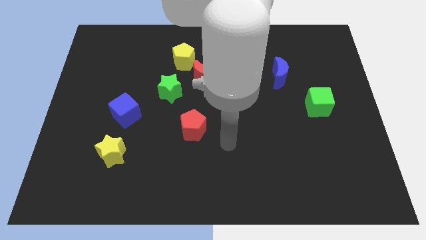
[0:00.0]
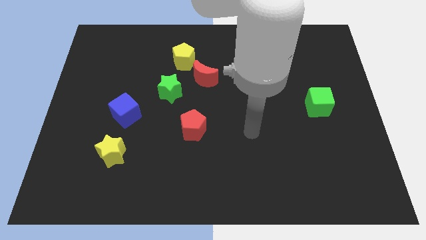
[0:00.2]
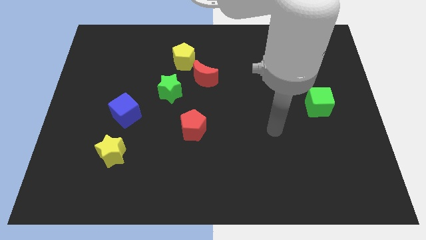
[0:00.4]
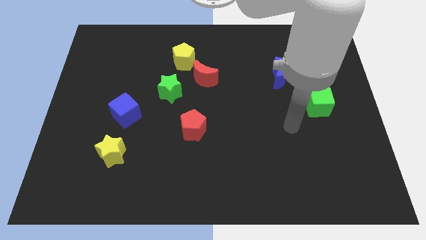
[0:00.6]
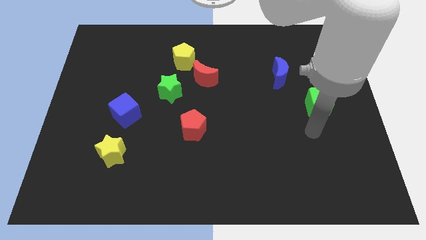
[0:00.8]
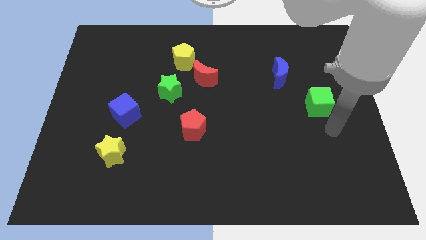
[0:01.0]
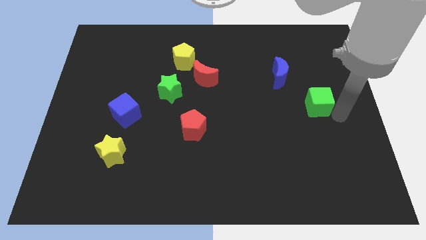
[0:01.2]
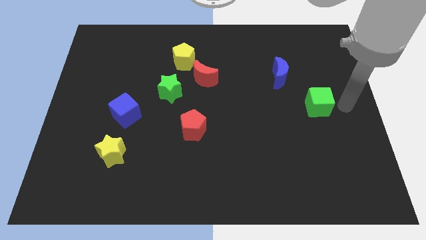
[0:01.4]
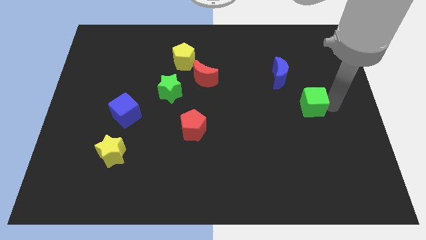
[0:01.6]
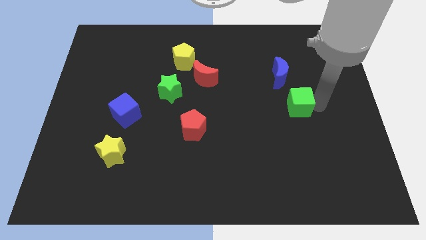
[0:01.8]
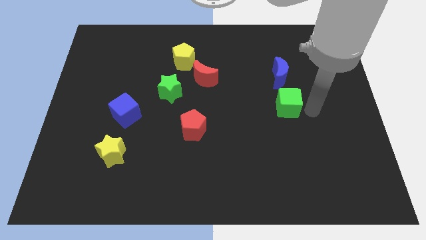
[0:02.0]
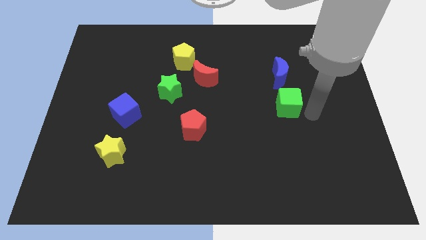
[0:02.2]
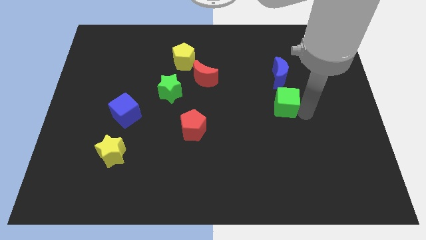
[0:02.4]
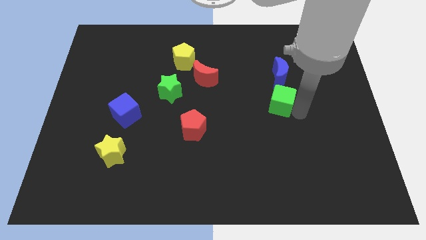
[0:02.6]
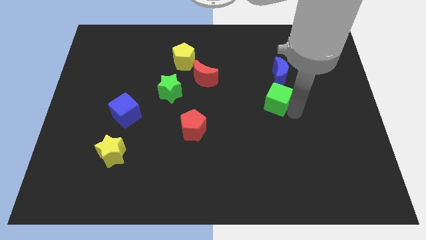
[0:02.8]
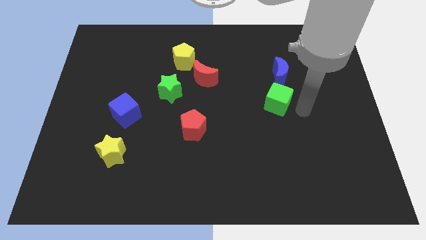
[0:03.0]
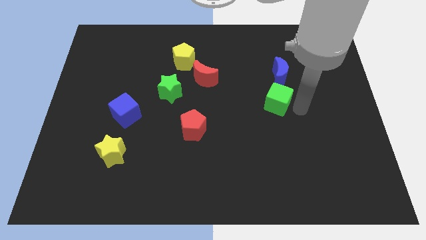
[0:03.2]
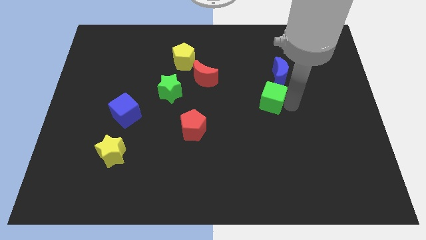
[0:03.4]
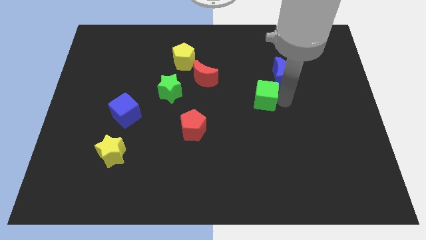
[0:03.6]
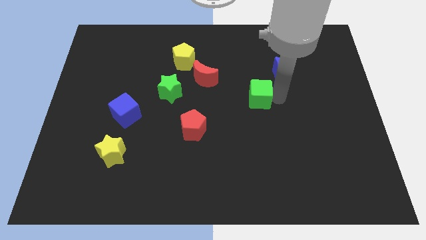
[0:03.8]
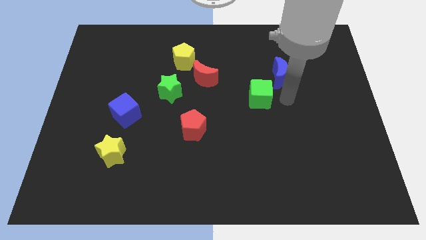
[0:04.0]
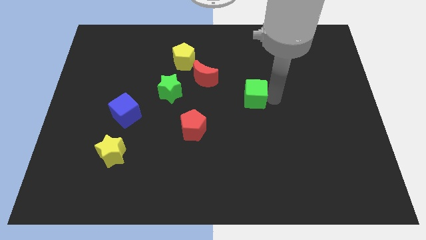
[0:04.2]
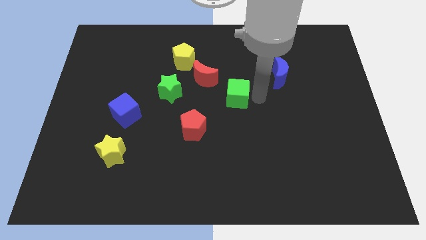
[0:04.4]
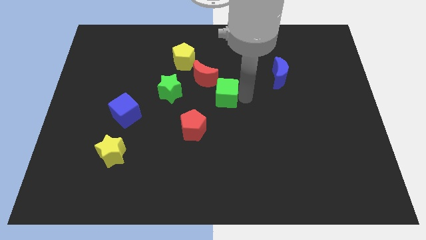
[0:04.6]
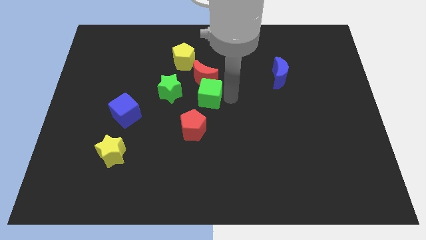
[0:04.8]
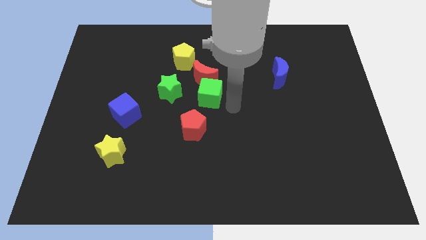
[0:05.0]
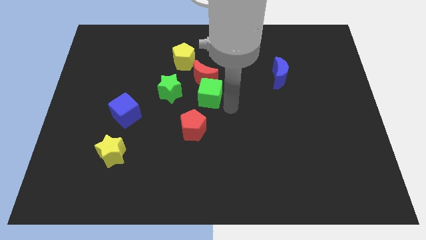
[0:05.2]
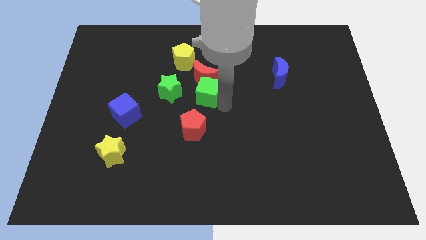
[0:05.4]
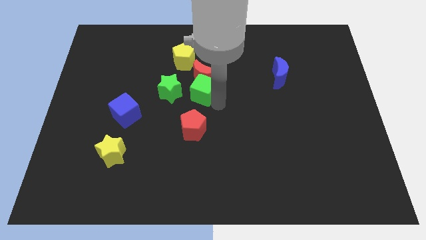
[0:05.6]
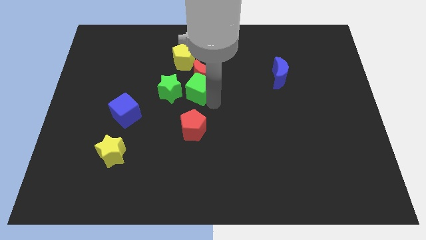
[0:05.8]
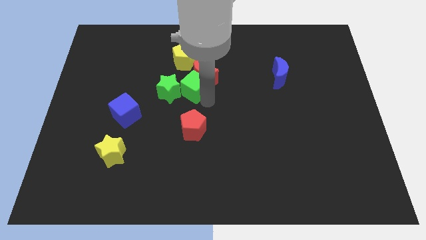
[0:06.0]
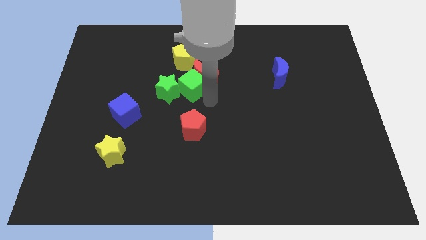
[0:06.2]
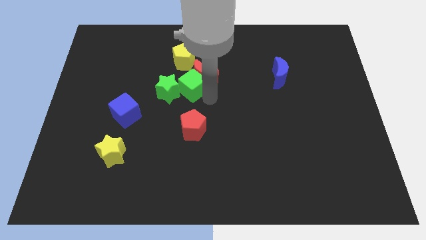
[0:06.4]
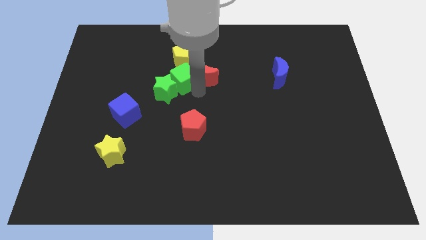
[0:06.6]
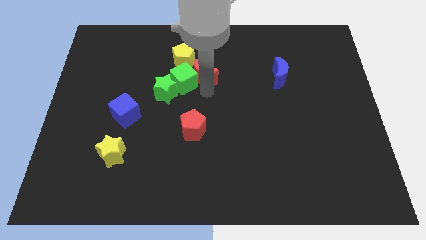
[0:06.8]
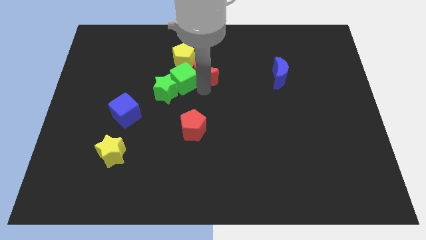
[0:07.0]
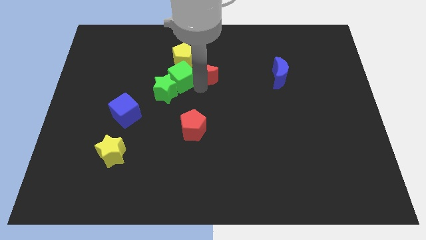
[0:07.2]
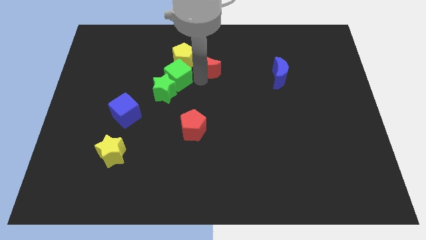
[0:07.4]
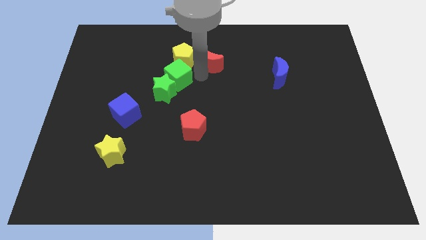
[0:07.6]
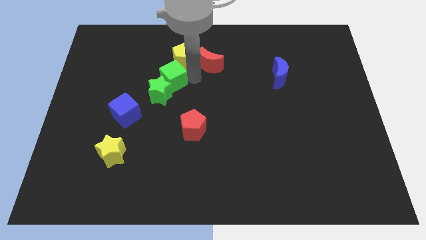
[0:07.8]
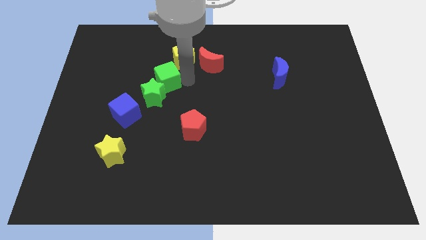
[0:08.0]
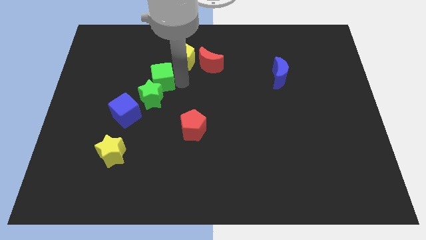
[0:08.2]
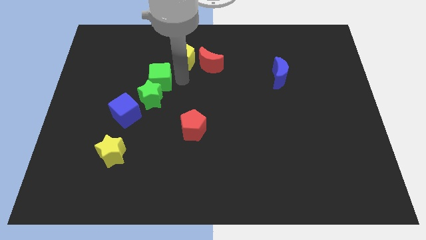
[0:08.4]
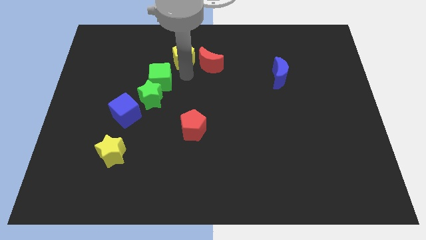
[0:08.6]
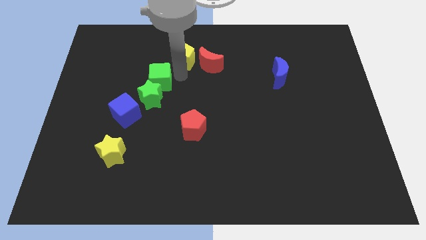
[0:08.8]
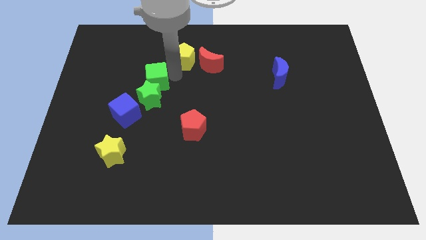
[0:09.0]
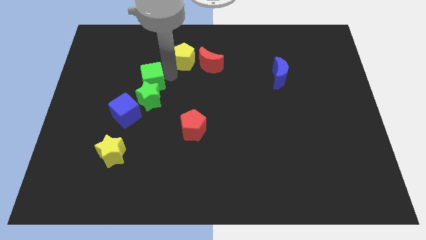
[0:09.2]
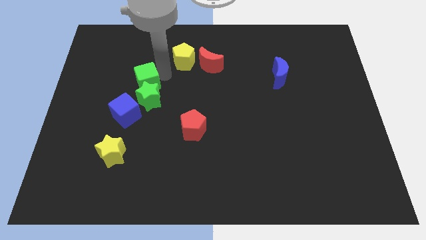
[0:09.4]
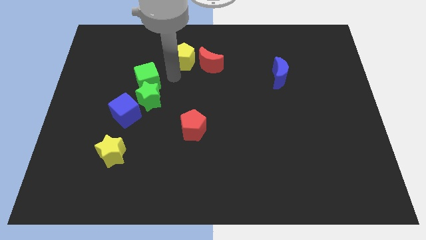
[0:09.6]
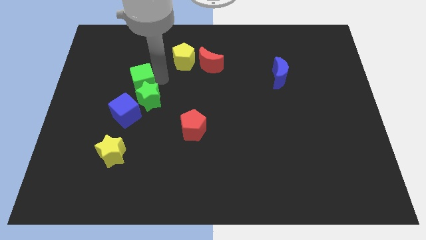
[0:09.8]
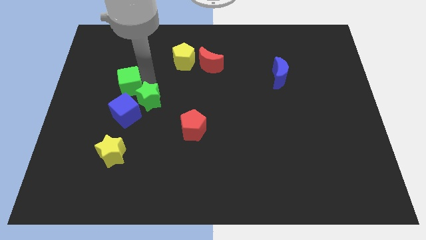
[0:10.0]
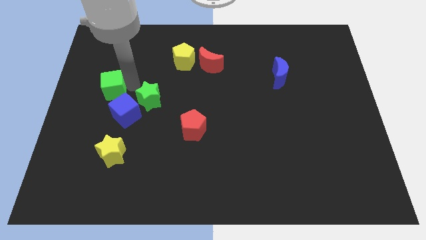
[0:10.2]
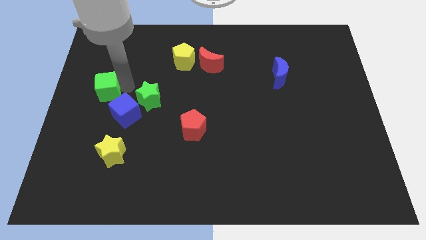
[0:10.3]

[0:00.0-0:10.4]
slide the green cube to the center left

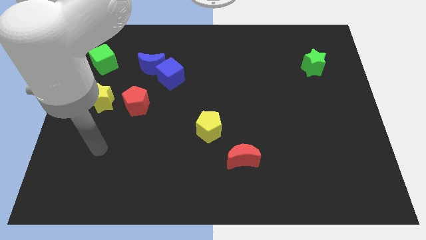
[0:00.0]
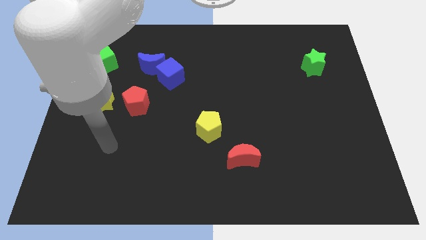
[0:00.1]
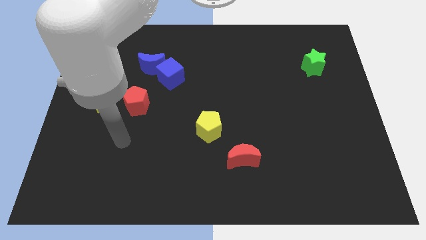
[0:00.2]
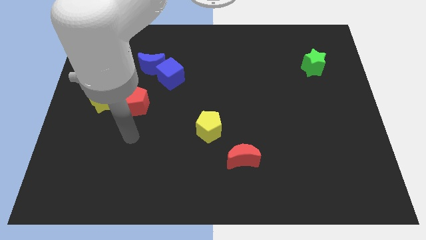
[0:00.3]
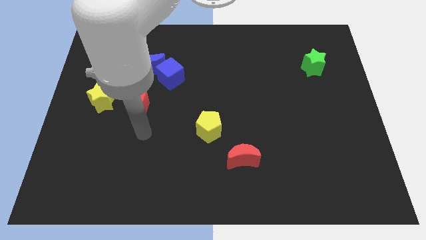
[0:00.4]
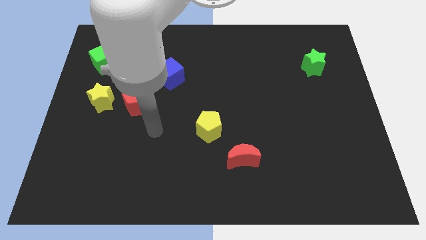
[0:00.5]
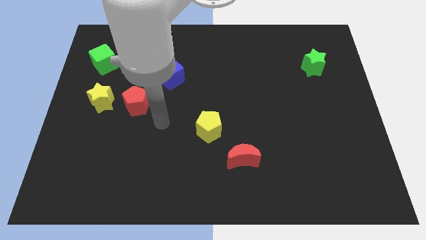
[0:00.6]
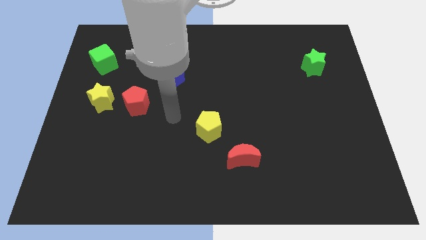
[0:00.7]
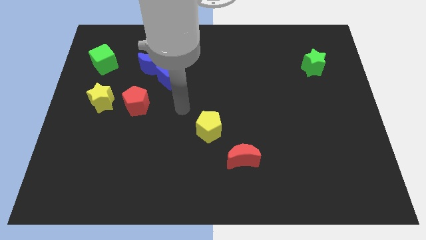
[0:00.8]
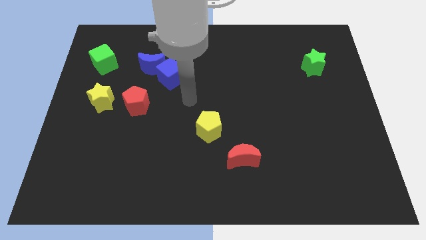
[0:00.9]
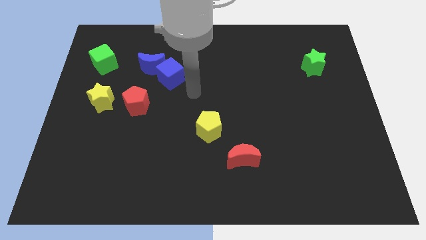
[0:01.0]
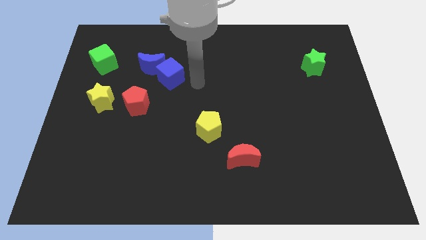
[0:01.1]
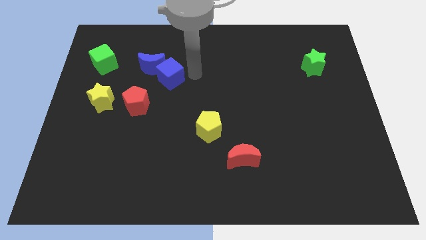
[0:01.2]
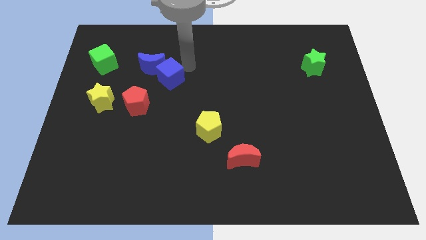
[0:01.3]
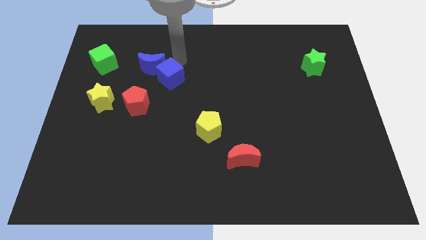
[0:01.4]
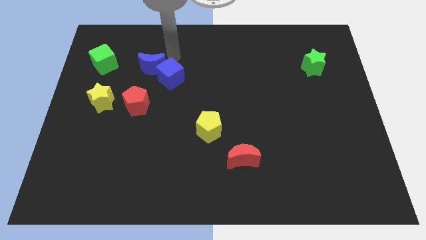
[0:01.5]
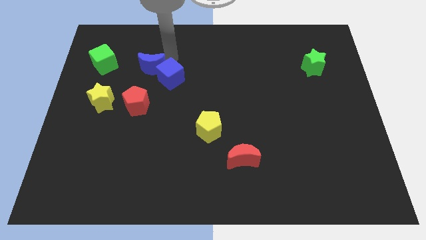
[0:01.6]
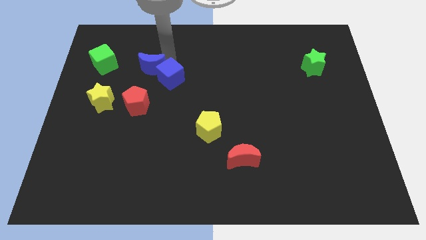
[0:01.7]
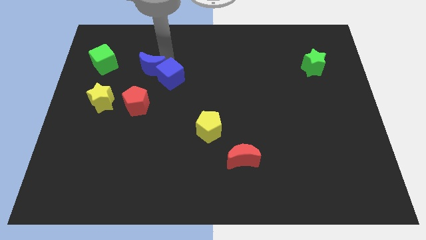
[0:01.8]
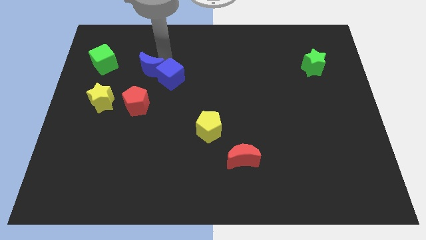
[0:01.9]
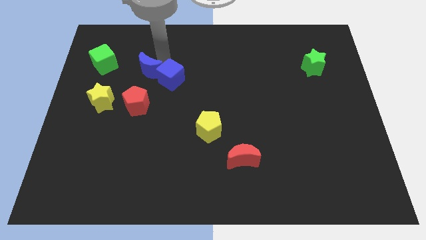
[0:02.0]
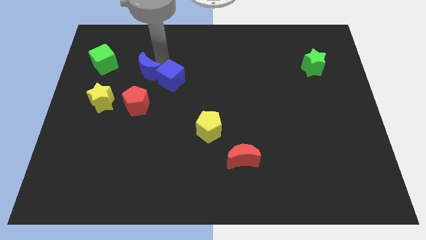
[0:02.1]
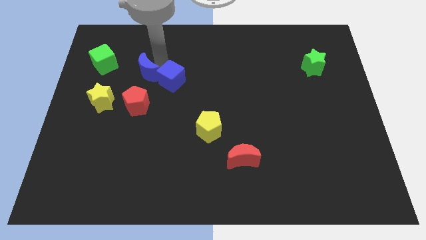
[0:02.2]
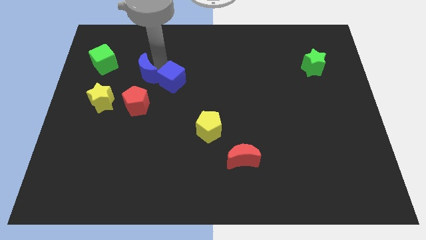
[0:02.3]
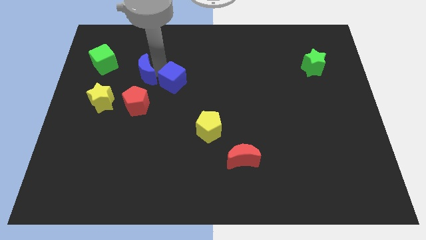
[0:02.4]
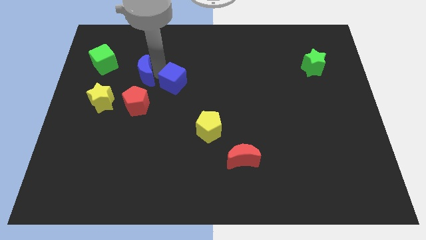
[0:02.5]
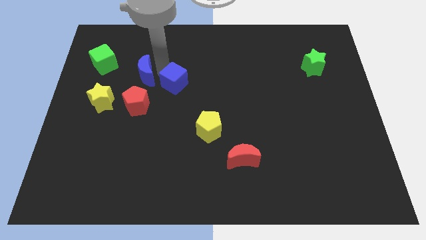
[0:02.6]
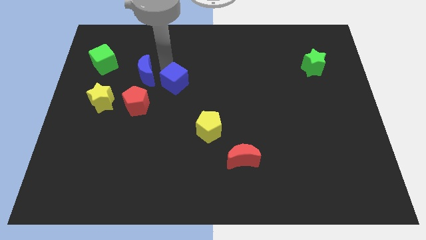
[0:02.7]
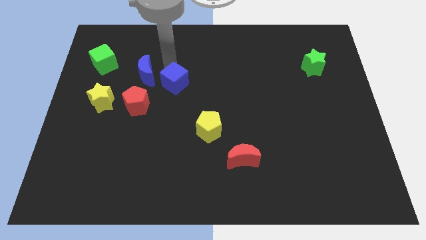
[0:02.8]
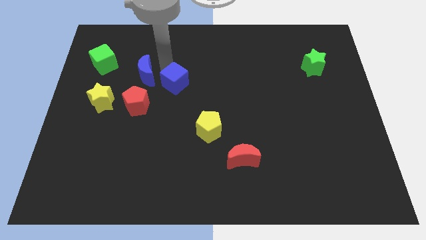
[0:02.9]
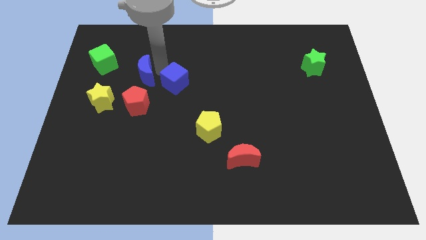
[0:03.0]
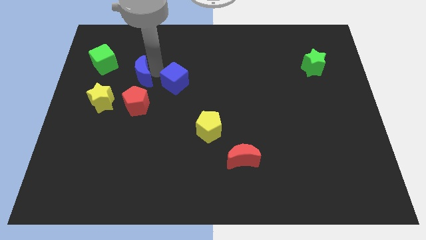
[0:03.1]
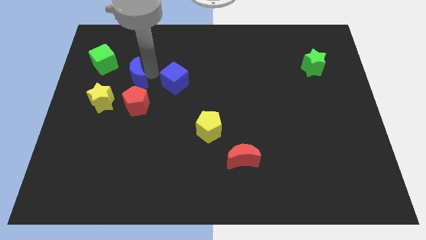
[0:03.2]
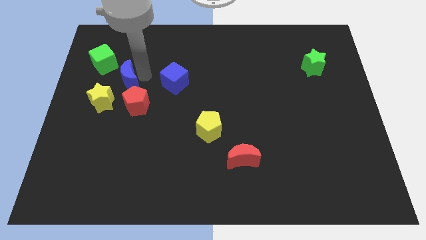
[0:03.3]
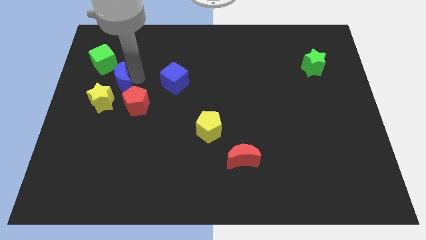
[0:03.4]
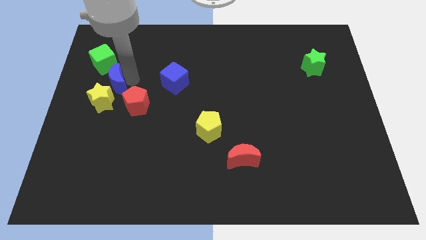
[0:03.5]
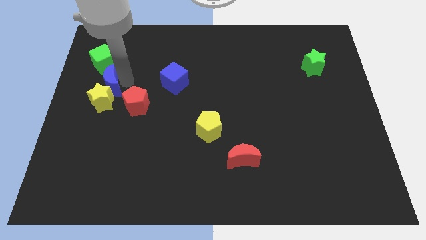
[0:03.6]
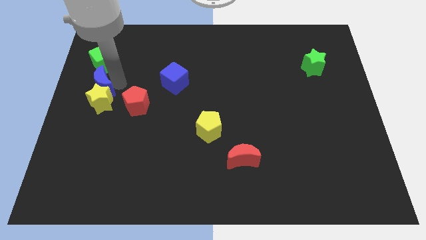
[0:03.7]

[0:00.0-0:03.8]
push the blue moon to the left side of the board
